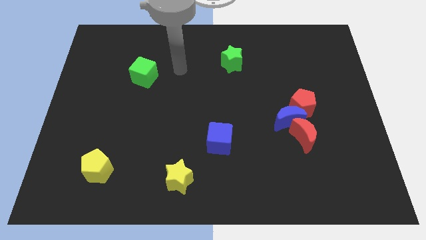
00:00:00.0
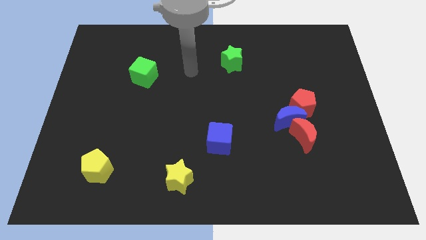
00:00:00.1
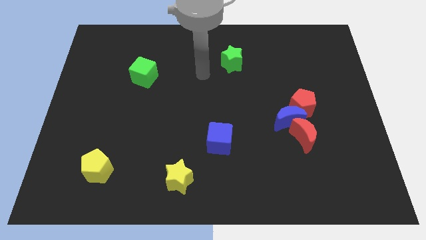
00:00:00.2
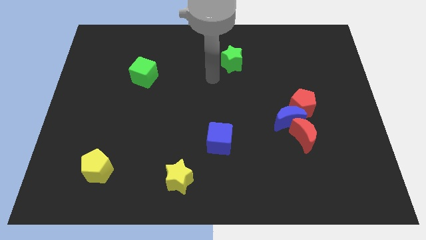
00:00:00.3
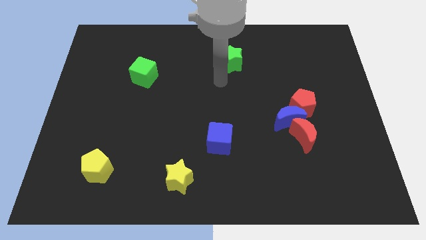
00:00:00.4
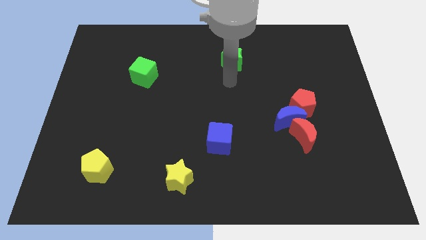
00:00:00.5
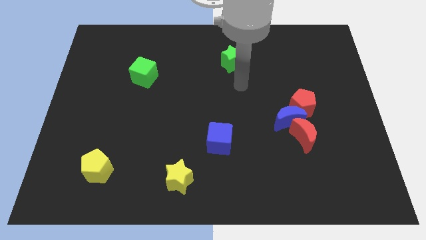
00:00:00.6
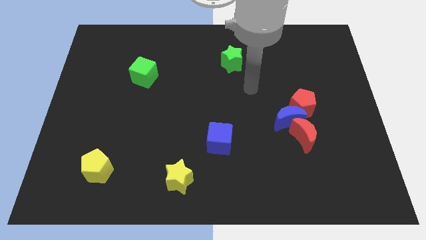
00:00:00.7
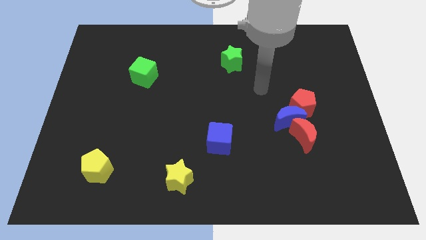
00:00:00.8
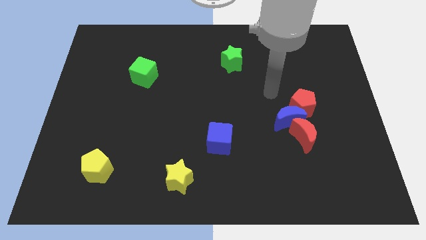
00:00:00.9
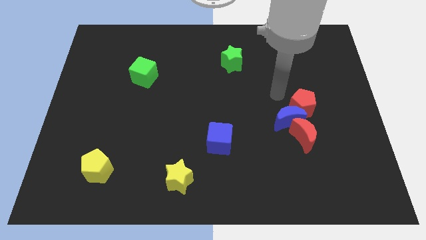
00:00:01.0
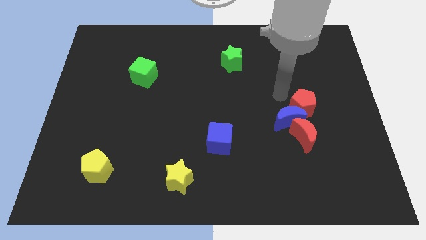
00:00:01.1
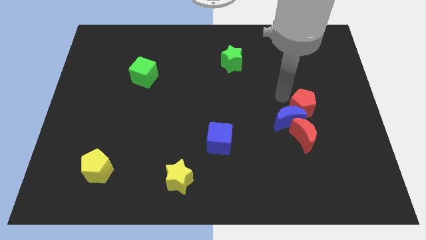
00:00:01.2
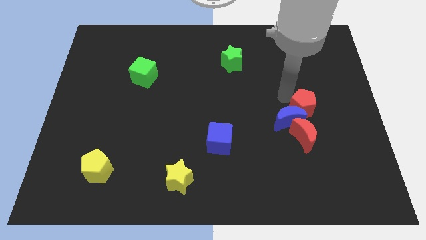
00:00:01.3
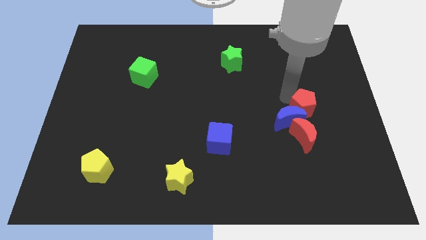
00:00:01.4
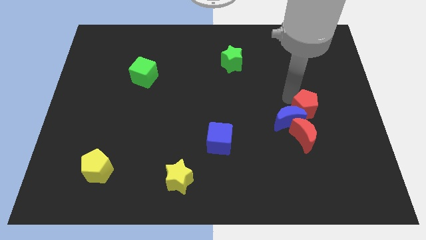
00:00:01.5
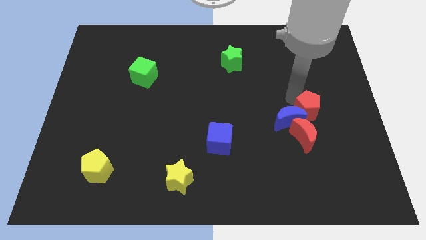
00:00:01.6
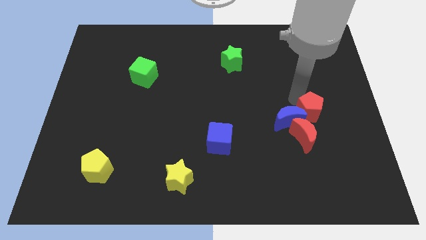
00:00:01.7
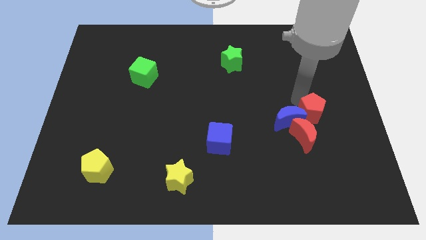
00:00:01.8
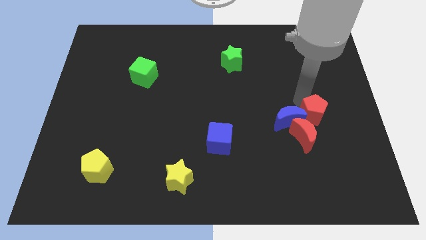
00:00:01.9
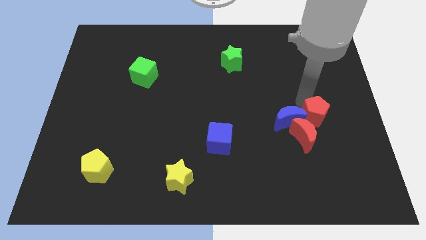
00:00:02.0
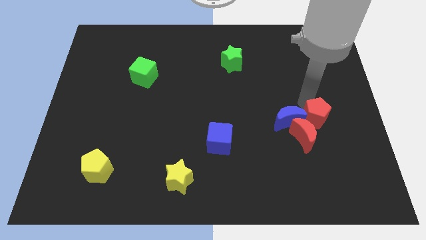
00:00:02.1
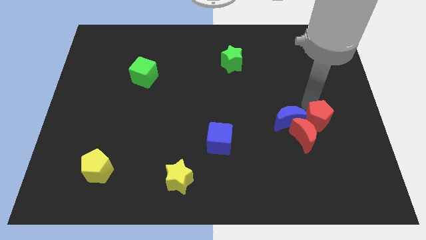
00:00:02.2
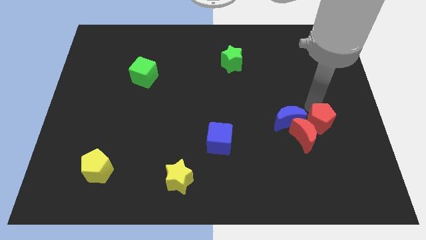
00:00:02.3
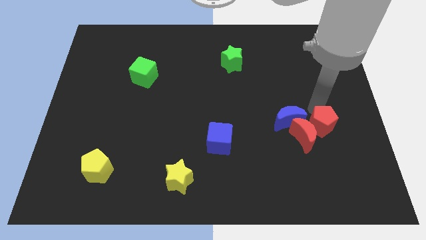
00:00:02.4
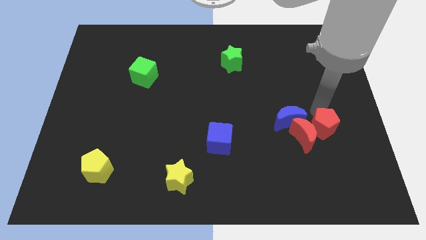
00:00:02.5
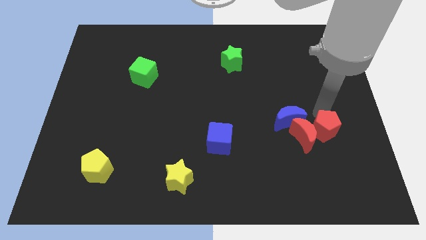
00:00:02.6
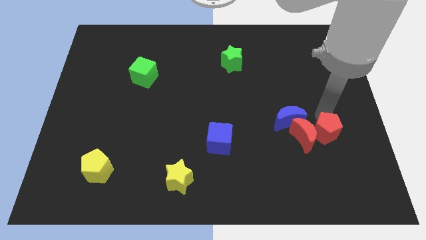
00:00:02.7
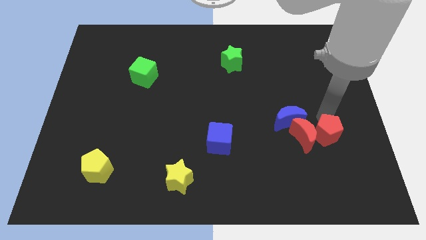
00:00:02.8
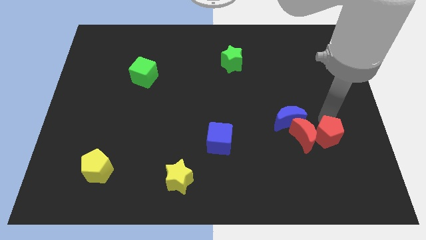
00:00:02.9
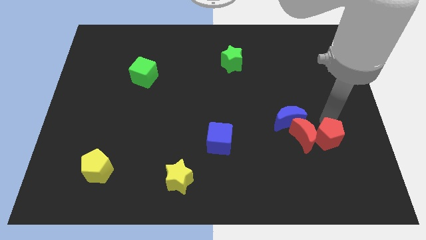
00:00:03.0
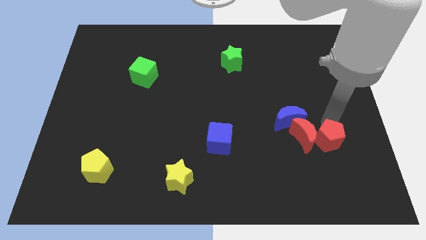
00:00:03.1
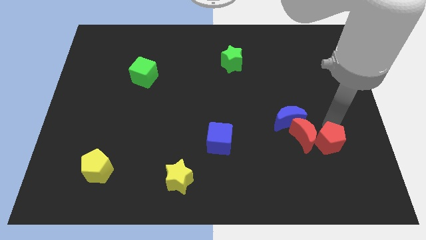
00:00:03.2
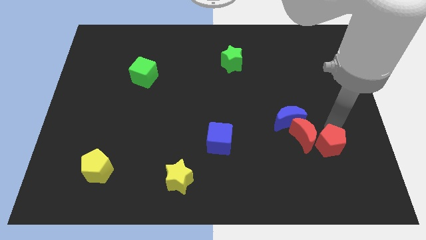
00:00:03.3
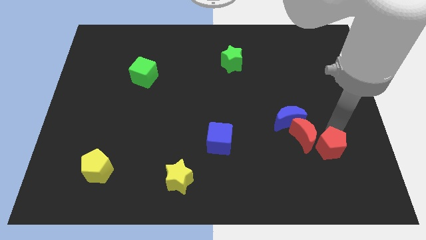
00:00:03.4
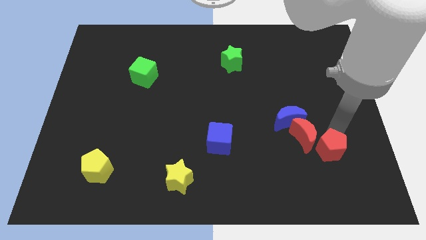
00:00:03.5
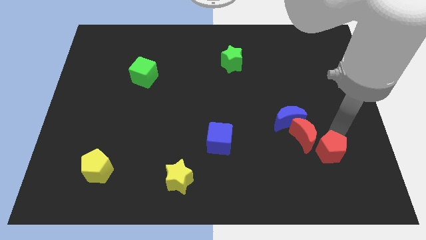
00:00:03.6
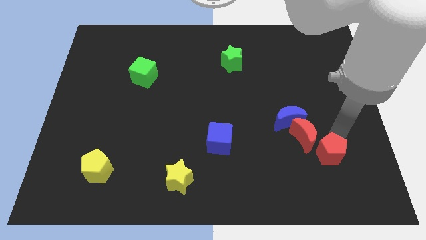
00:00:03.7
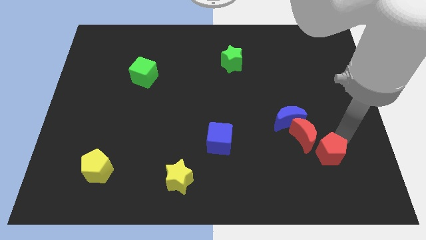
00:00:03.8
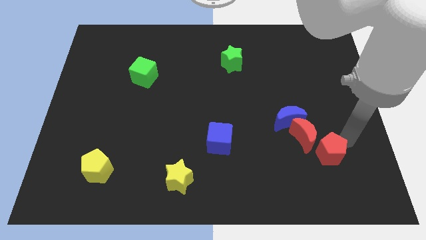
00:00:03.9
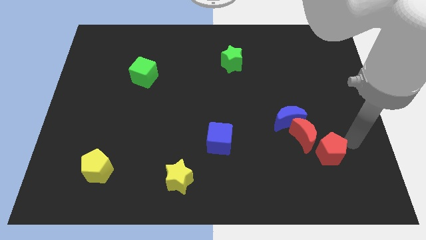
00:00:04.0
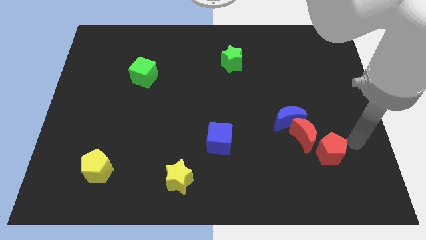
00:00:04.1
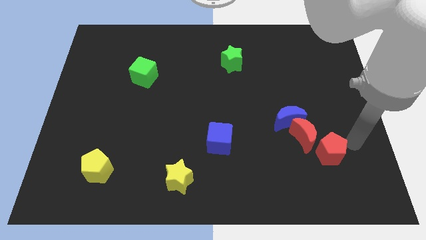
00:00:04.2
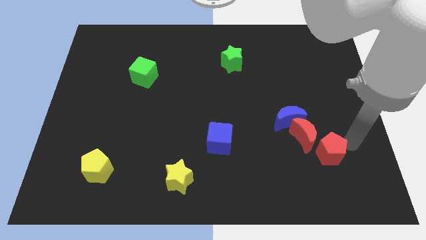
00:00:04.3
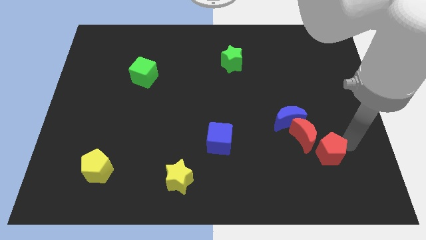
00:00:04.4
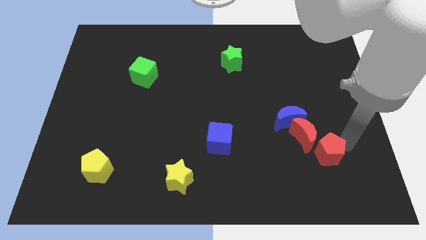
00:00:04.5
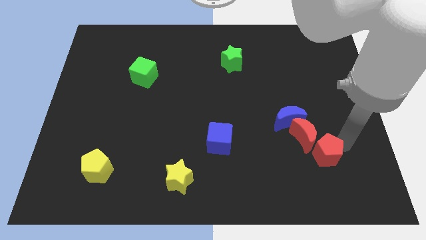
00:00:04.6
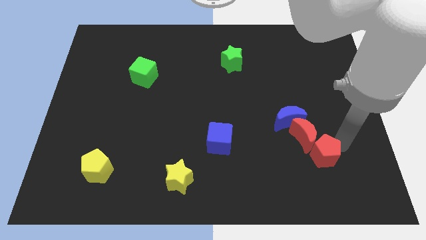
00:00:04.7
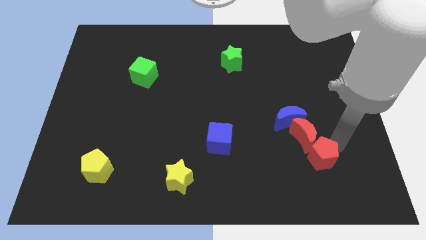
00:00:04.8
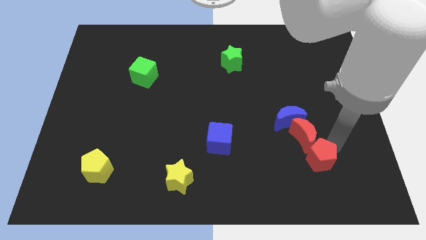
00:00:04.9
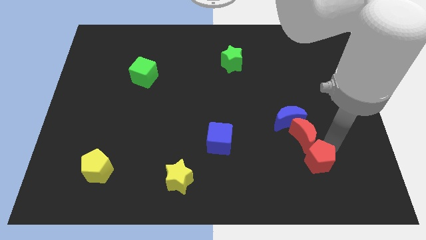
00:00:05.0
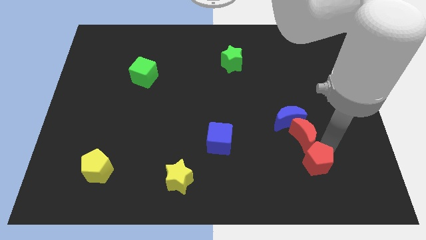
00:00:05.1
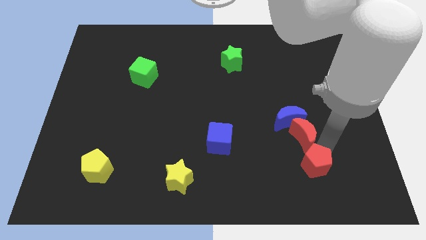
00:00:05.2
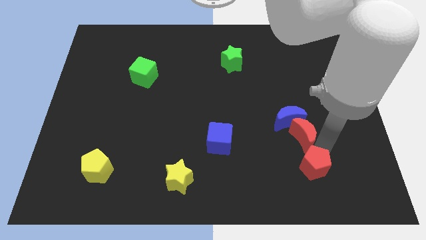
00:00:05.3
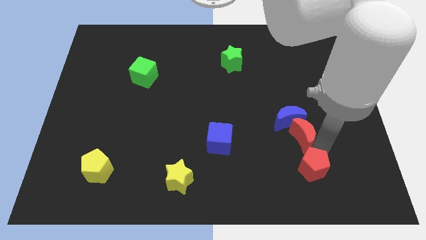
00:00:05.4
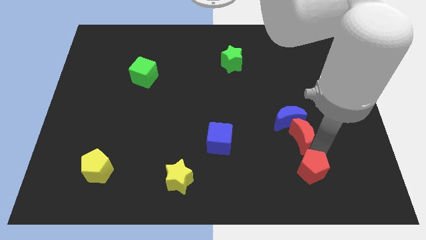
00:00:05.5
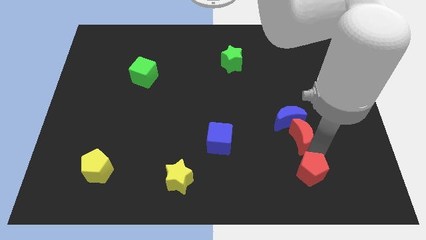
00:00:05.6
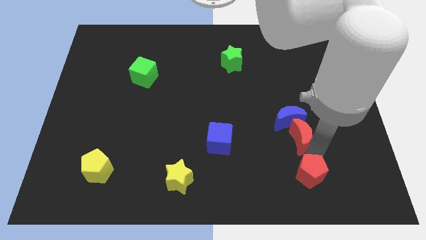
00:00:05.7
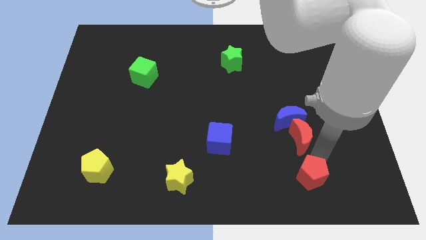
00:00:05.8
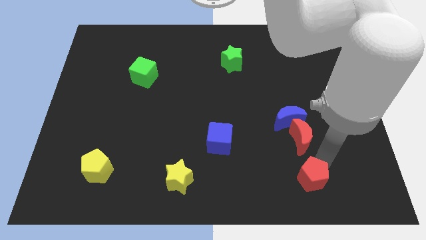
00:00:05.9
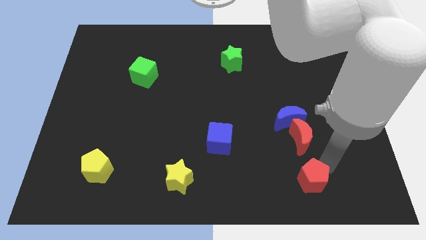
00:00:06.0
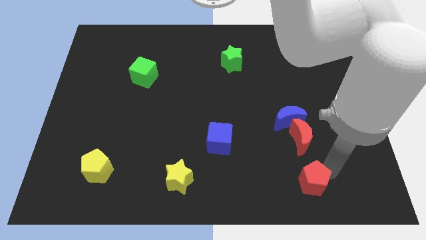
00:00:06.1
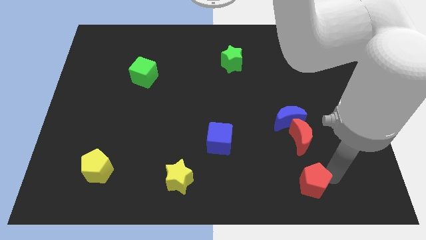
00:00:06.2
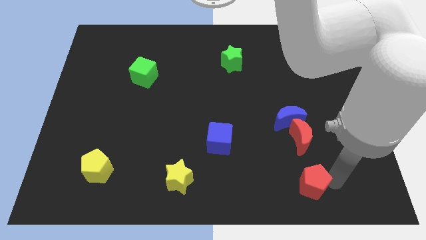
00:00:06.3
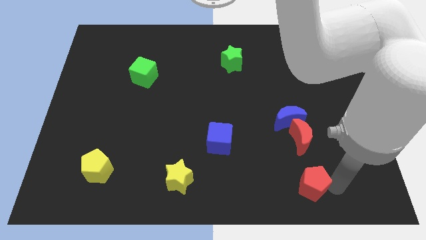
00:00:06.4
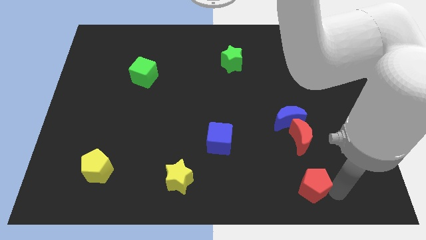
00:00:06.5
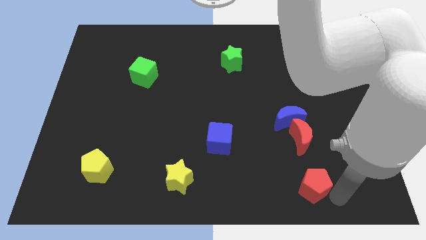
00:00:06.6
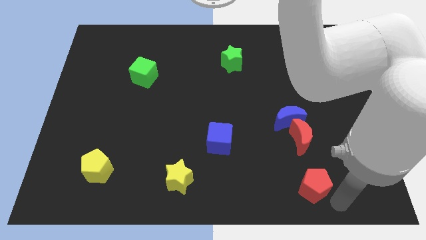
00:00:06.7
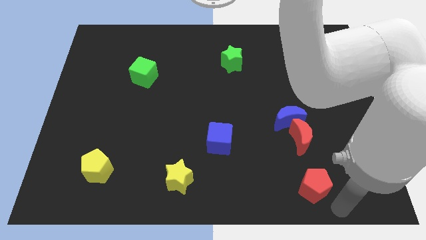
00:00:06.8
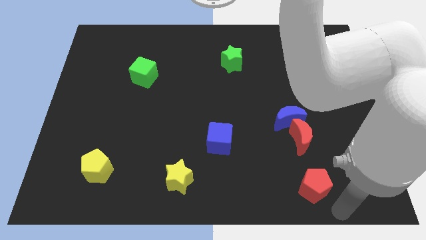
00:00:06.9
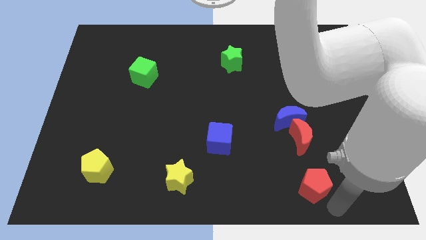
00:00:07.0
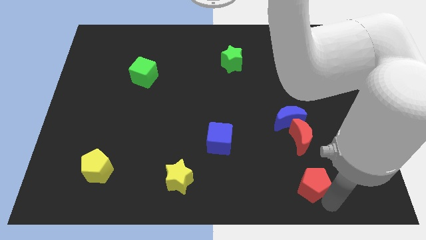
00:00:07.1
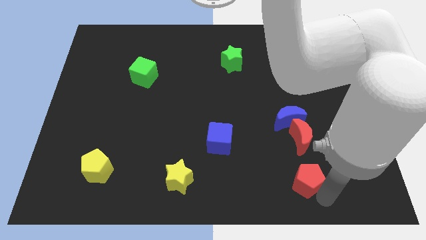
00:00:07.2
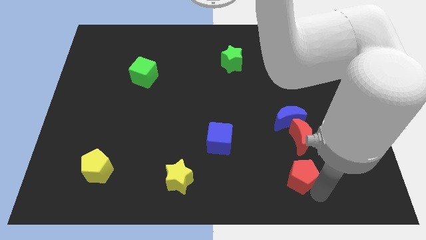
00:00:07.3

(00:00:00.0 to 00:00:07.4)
move the red pentagon a bit downwards and then left

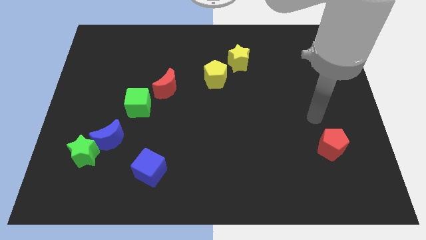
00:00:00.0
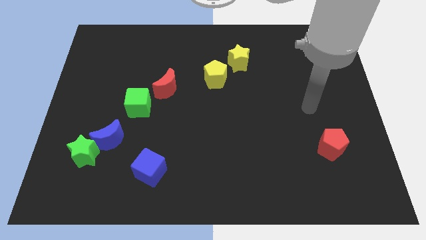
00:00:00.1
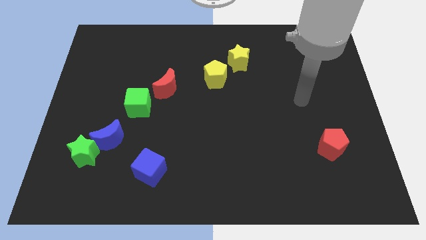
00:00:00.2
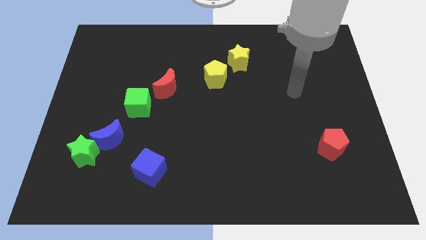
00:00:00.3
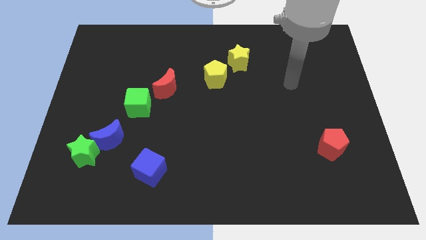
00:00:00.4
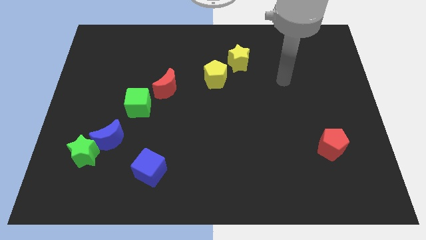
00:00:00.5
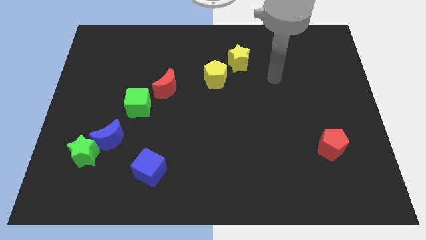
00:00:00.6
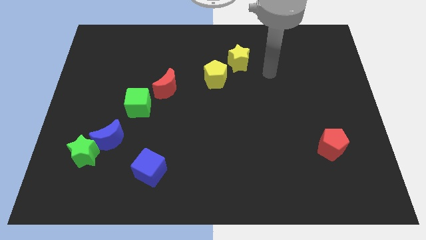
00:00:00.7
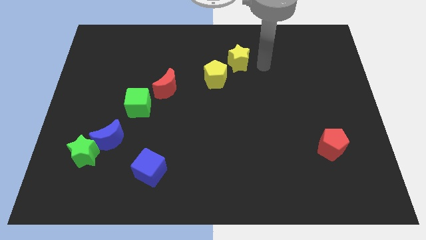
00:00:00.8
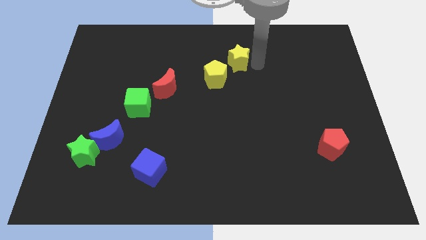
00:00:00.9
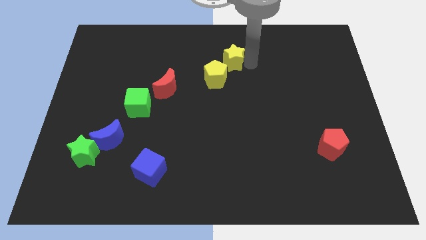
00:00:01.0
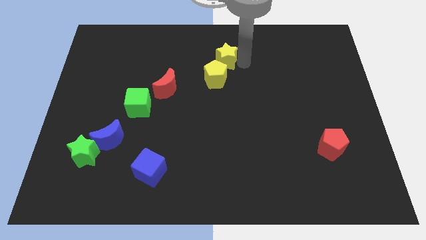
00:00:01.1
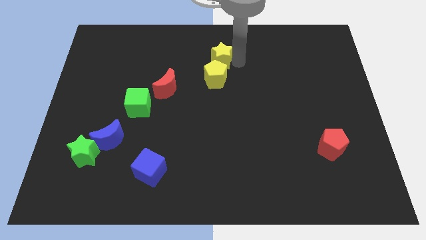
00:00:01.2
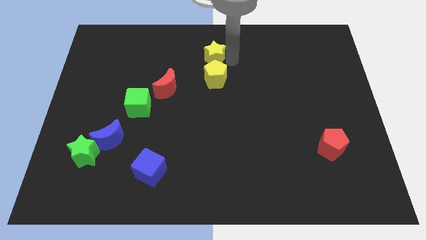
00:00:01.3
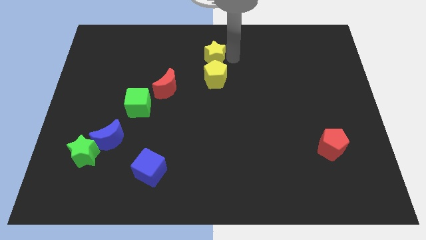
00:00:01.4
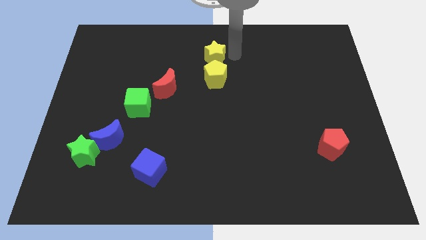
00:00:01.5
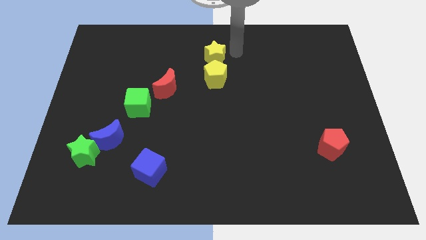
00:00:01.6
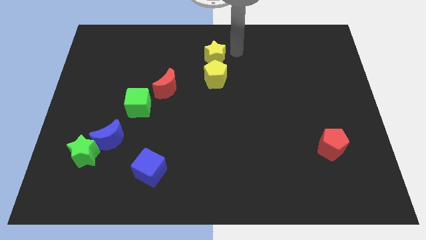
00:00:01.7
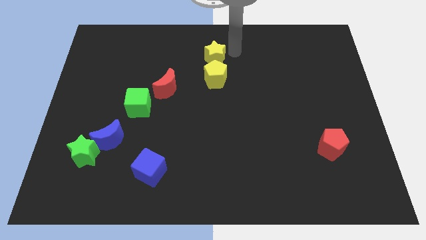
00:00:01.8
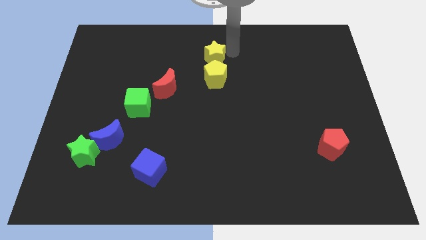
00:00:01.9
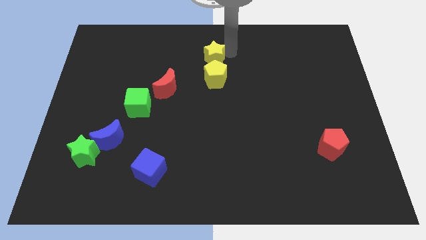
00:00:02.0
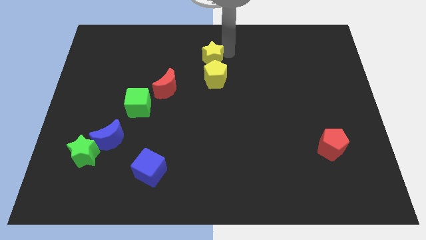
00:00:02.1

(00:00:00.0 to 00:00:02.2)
slide the yellow star left somewhat
